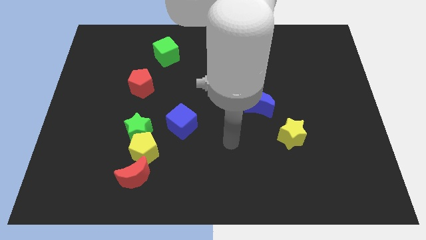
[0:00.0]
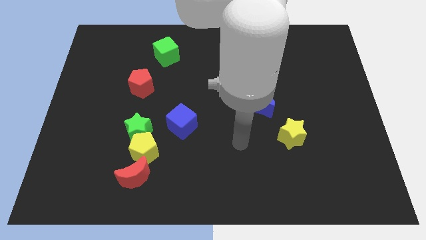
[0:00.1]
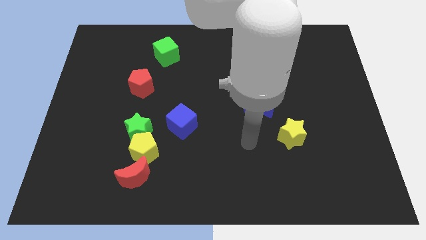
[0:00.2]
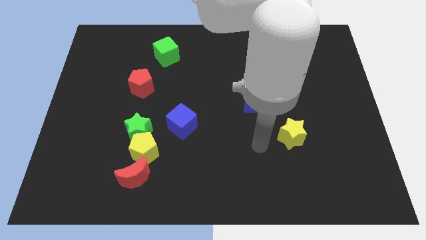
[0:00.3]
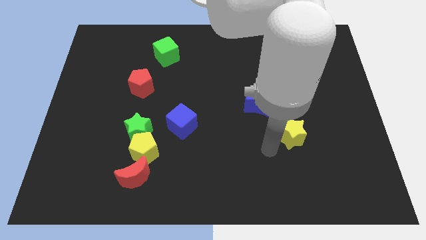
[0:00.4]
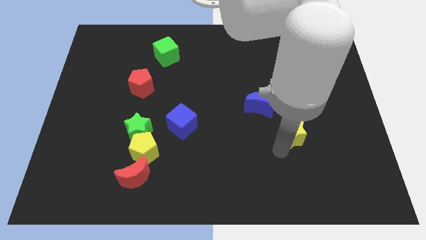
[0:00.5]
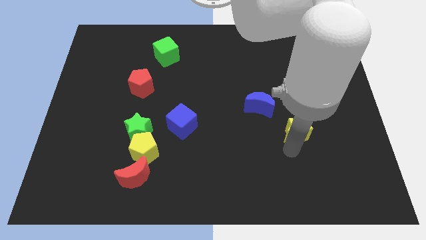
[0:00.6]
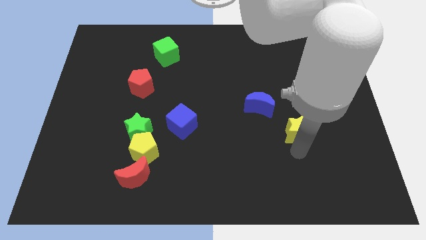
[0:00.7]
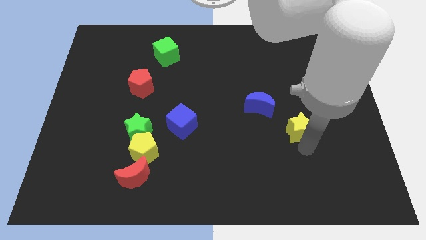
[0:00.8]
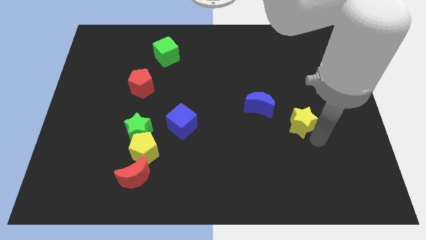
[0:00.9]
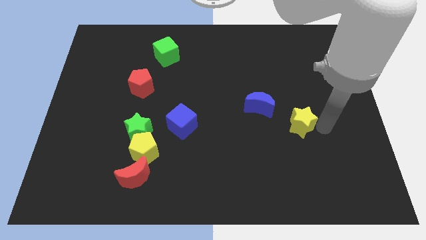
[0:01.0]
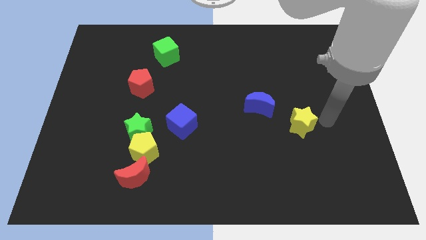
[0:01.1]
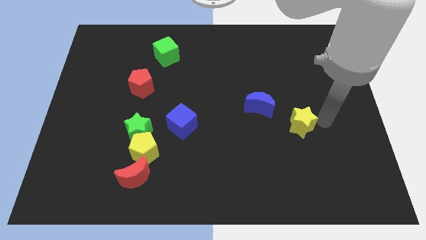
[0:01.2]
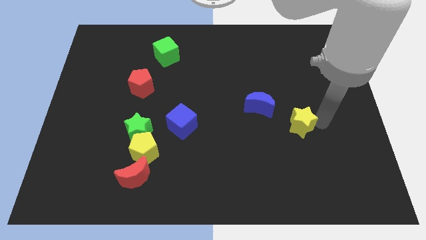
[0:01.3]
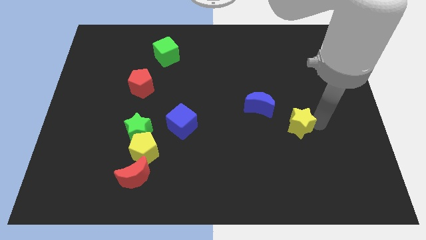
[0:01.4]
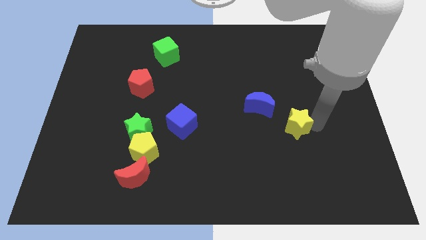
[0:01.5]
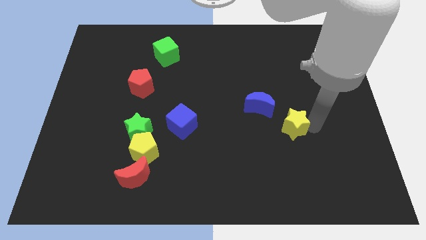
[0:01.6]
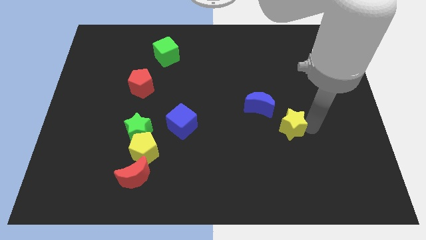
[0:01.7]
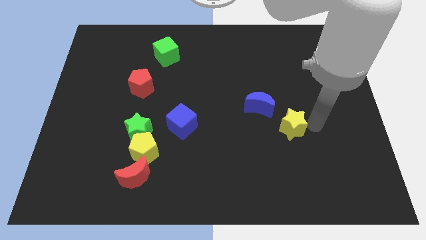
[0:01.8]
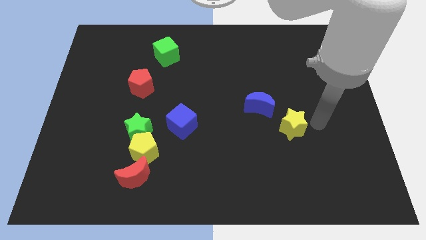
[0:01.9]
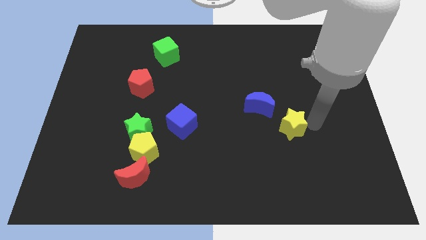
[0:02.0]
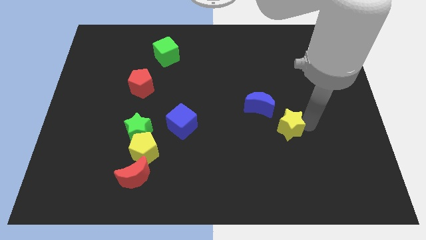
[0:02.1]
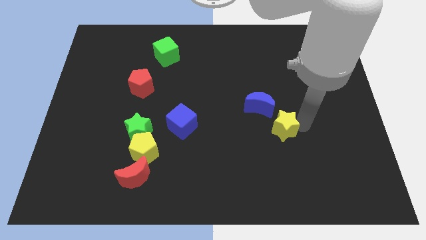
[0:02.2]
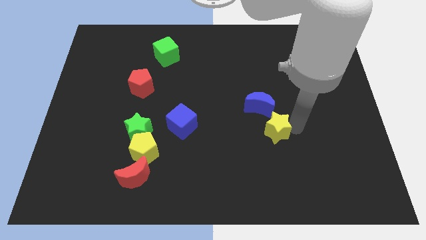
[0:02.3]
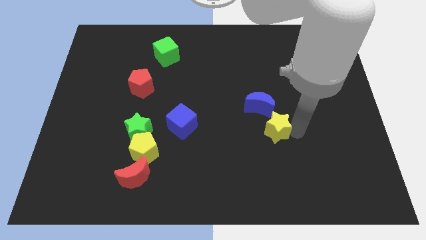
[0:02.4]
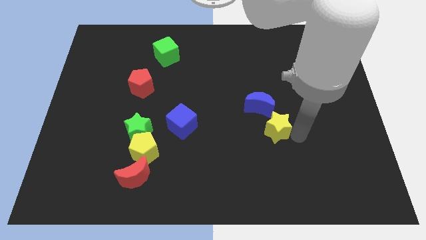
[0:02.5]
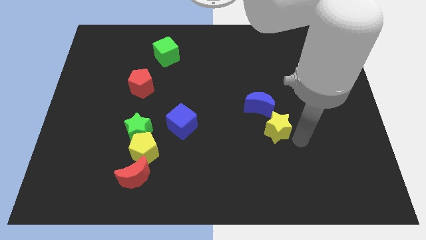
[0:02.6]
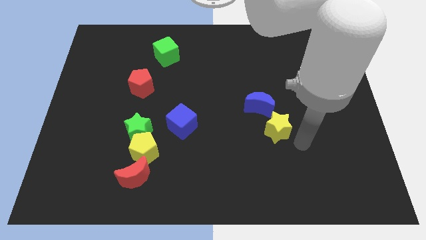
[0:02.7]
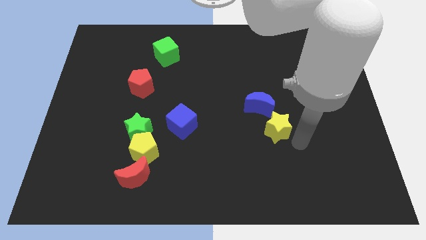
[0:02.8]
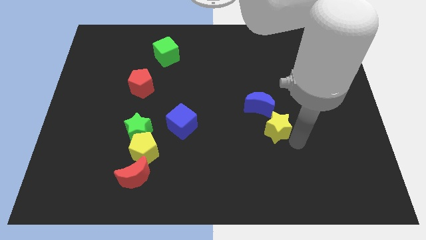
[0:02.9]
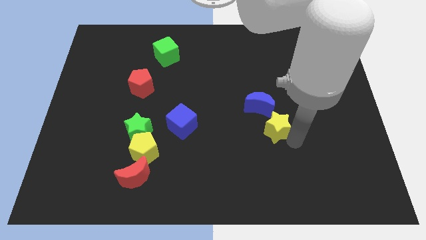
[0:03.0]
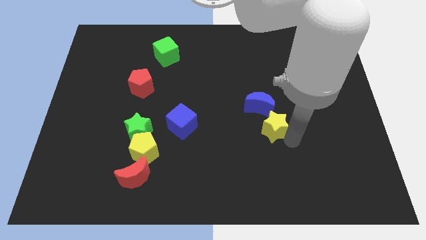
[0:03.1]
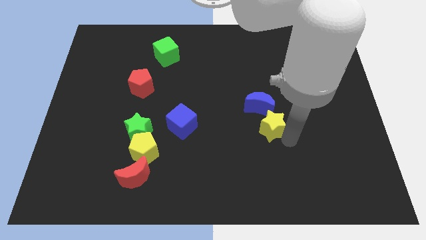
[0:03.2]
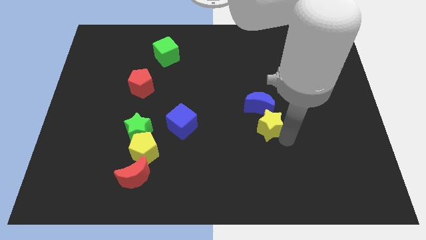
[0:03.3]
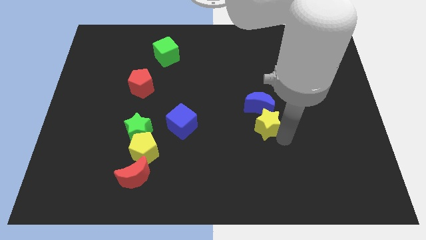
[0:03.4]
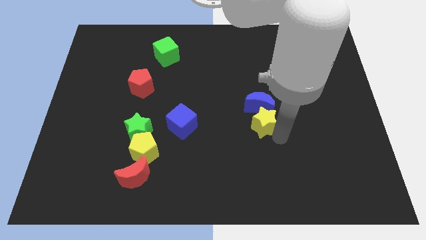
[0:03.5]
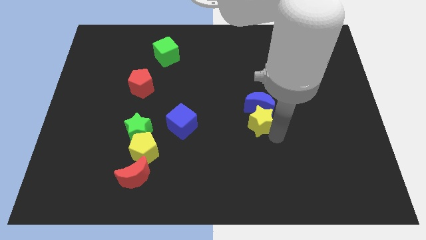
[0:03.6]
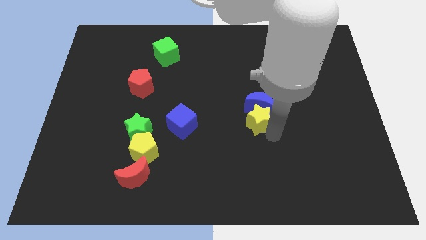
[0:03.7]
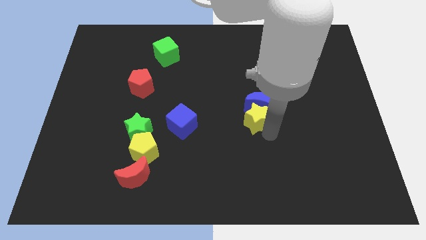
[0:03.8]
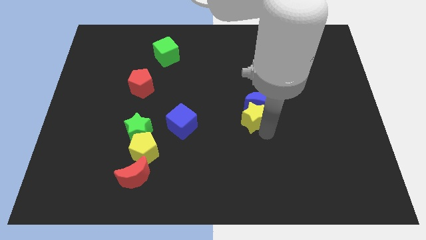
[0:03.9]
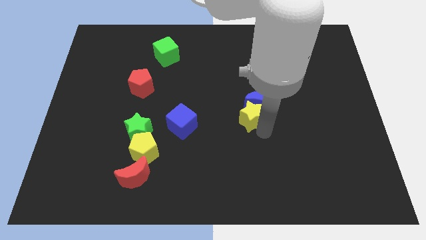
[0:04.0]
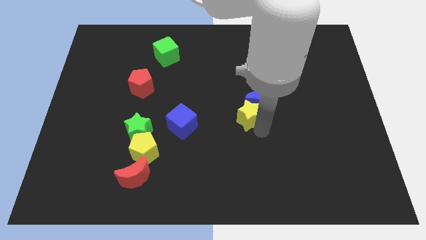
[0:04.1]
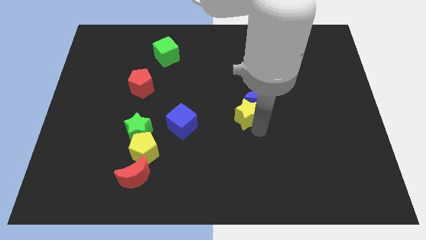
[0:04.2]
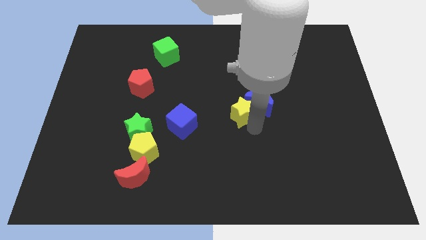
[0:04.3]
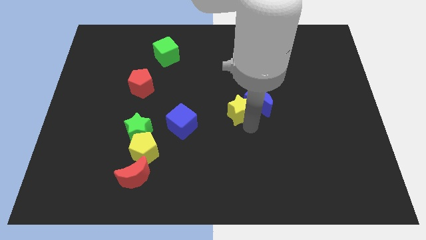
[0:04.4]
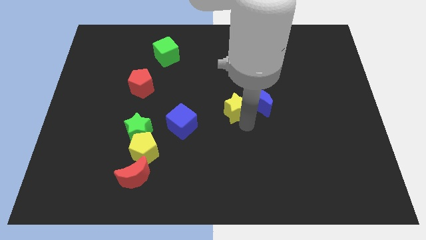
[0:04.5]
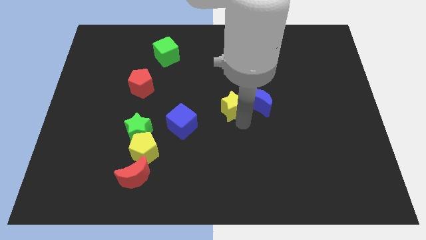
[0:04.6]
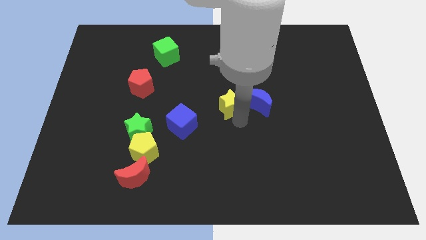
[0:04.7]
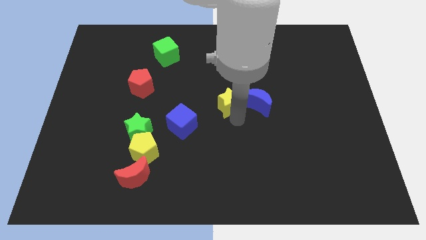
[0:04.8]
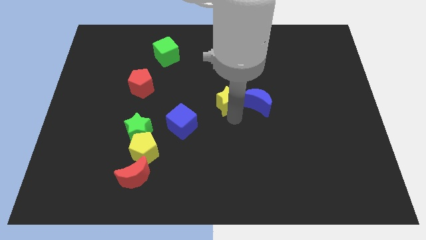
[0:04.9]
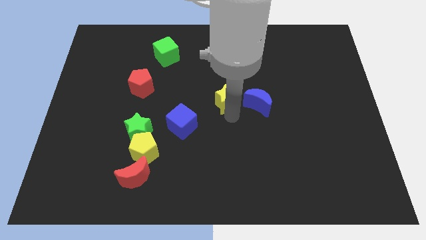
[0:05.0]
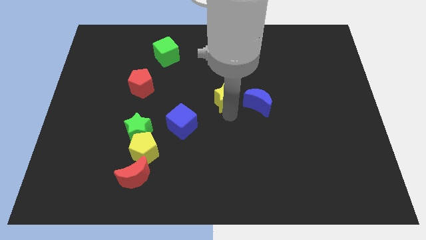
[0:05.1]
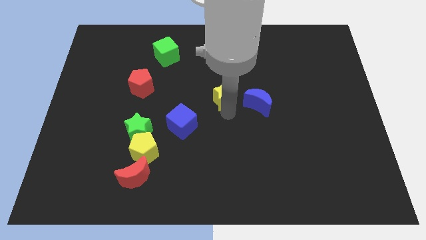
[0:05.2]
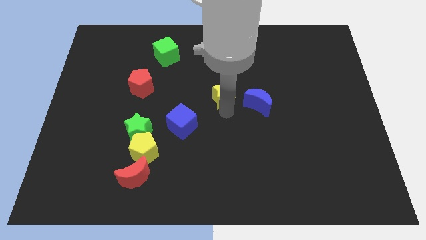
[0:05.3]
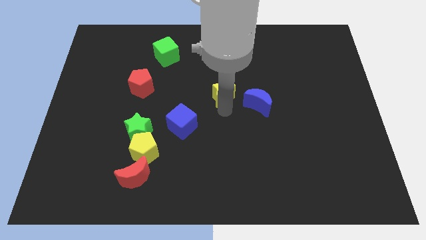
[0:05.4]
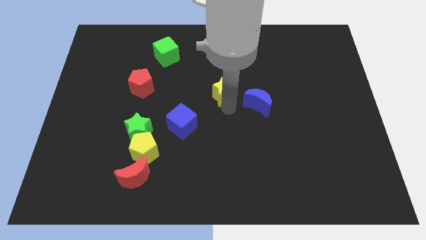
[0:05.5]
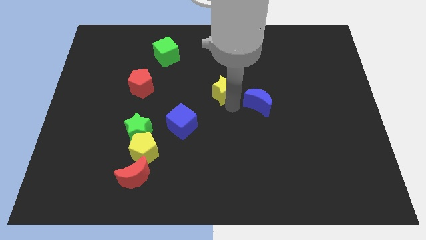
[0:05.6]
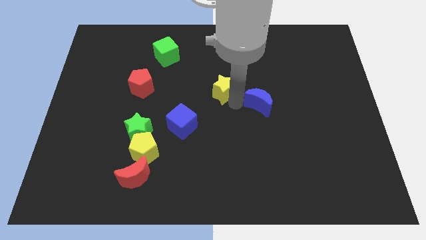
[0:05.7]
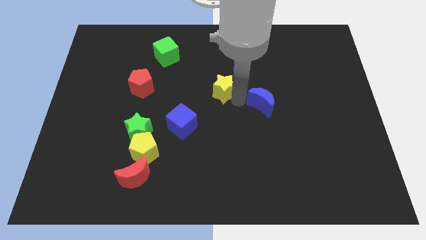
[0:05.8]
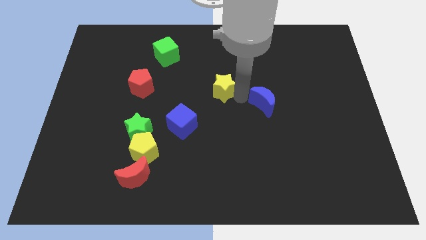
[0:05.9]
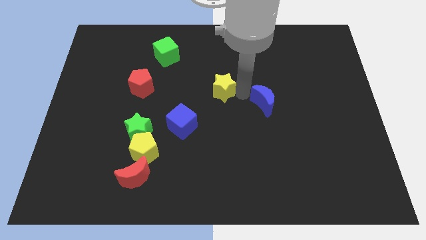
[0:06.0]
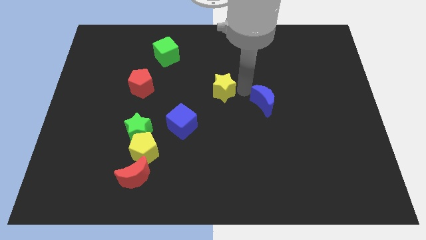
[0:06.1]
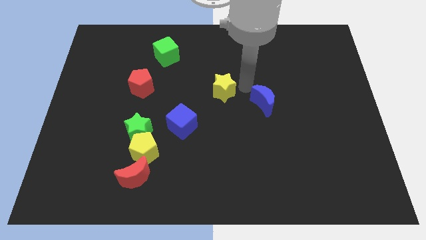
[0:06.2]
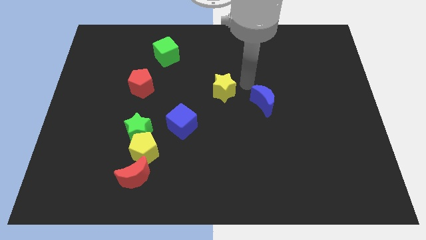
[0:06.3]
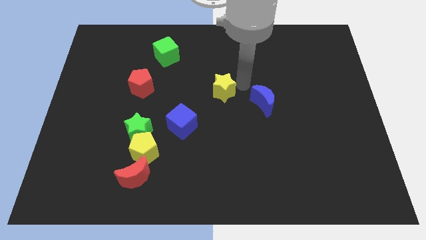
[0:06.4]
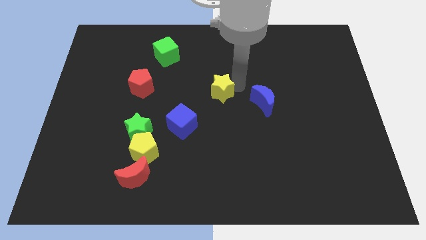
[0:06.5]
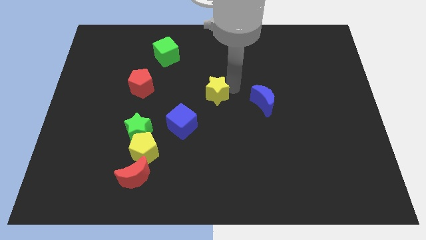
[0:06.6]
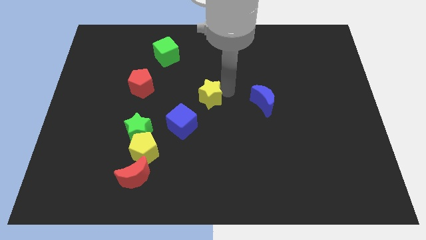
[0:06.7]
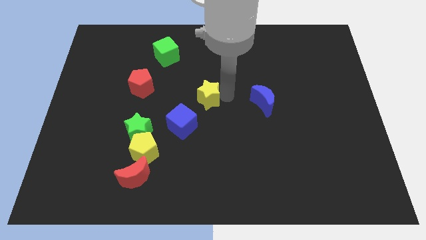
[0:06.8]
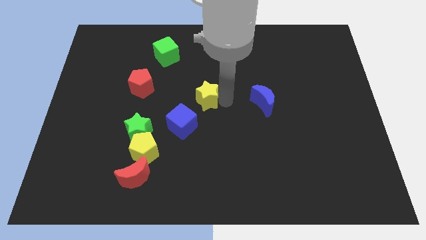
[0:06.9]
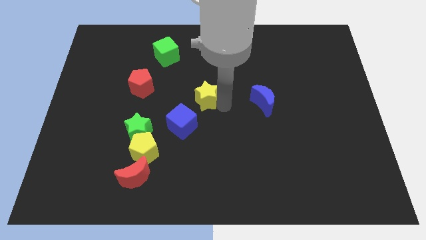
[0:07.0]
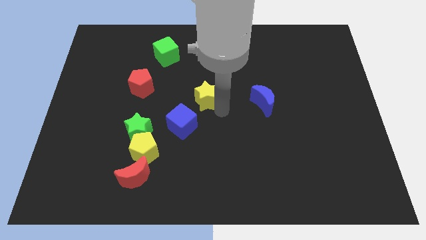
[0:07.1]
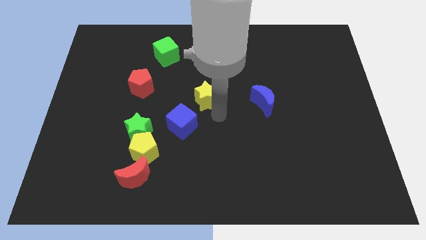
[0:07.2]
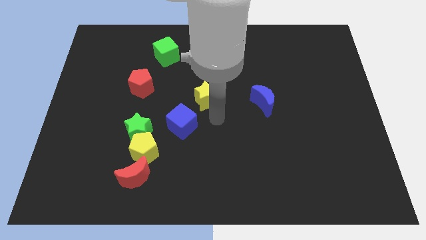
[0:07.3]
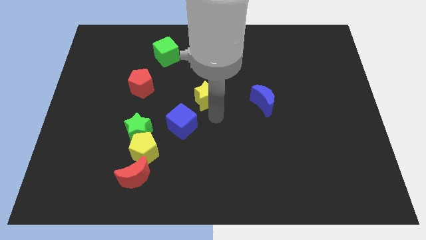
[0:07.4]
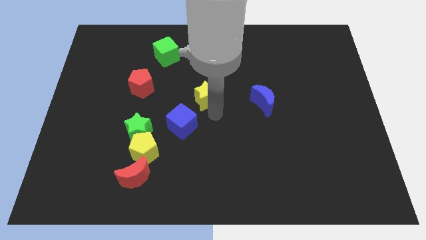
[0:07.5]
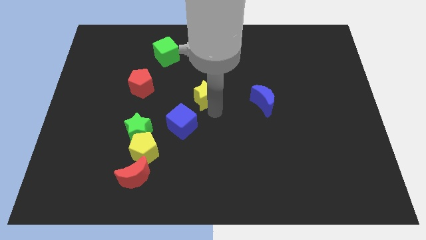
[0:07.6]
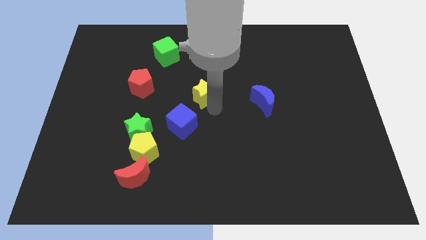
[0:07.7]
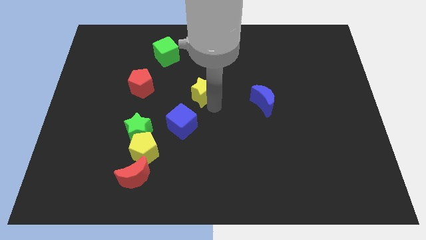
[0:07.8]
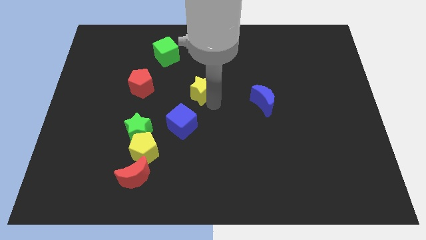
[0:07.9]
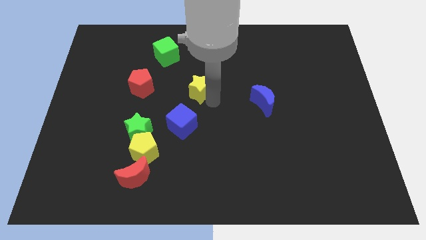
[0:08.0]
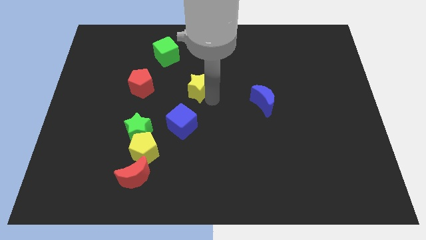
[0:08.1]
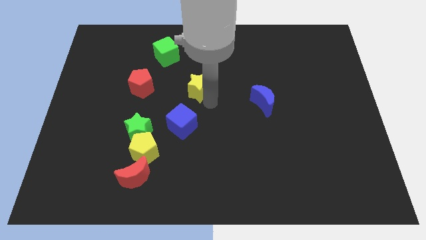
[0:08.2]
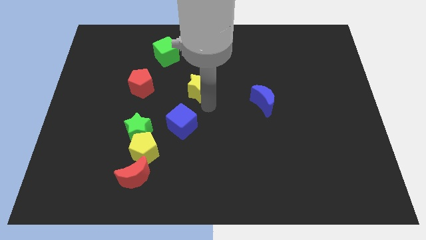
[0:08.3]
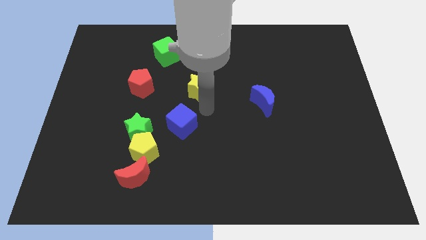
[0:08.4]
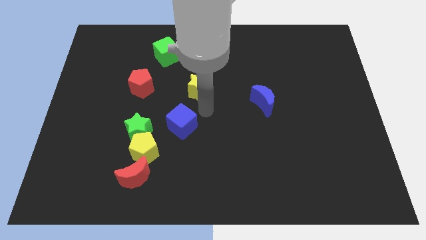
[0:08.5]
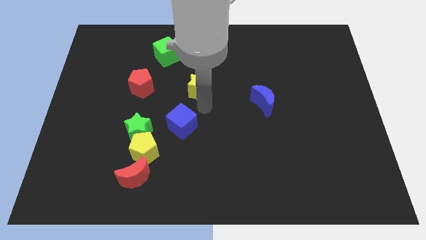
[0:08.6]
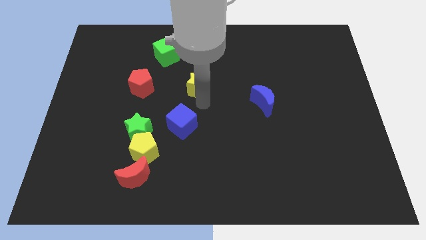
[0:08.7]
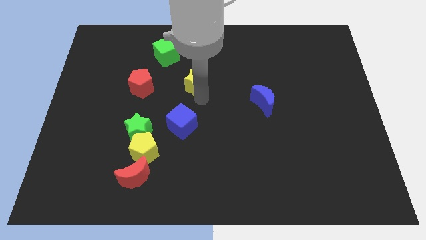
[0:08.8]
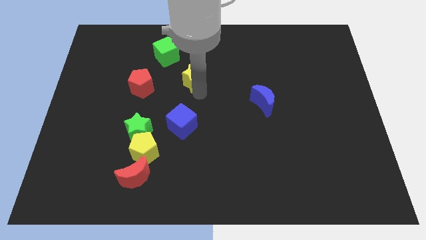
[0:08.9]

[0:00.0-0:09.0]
move the yellow star to the bottom right side of the green cube
